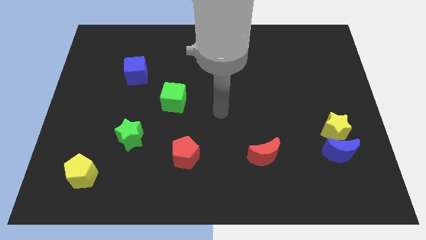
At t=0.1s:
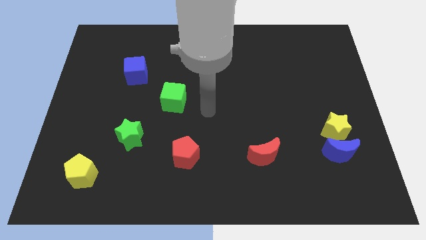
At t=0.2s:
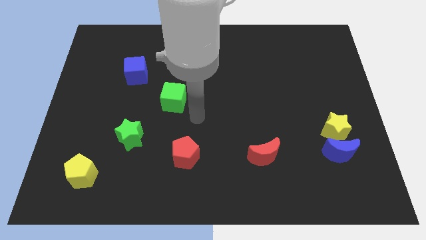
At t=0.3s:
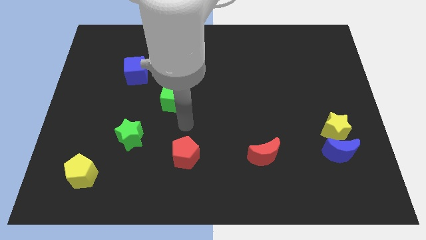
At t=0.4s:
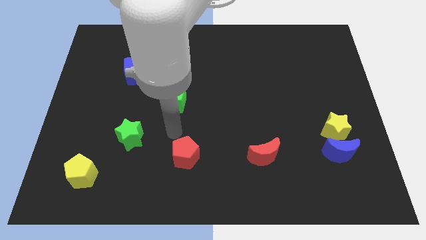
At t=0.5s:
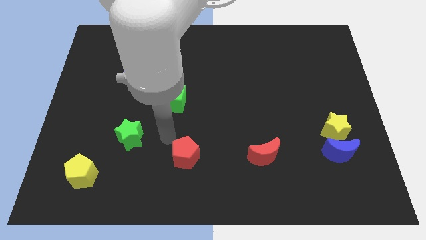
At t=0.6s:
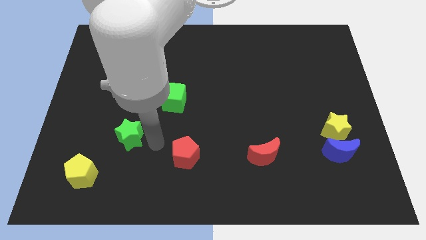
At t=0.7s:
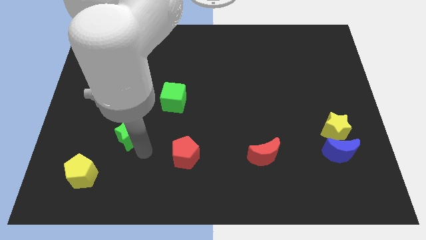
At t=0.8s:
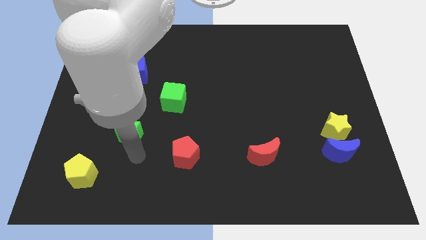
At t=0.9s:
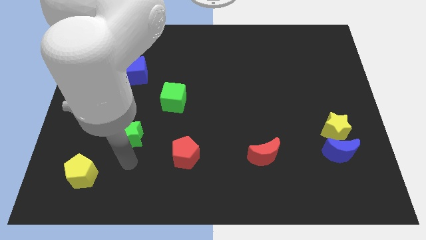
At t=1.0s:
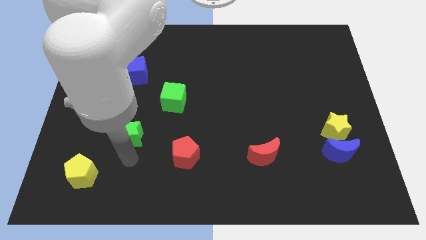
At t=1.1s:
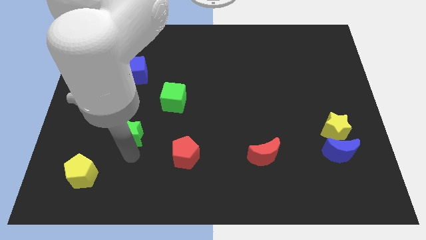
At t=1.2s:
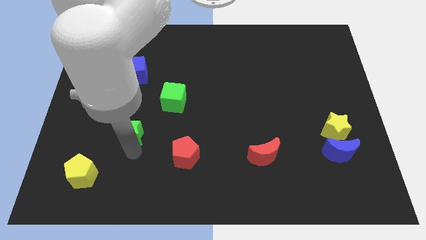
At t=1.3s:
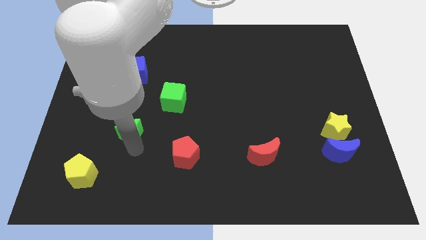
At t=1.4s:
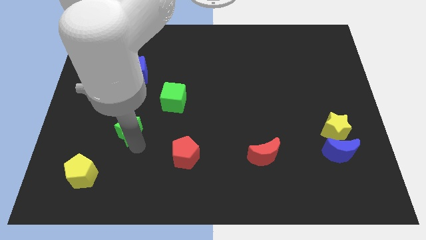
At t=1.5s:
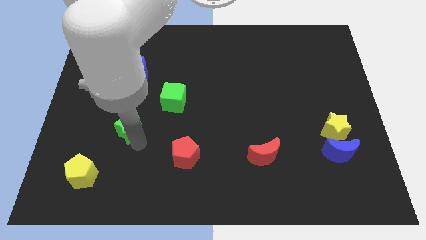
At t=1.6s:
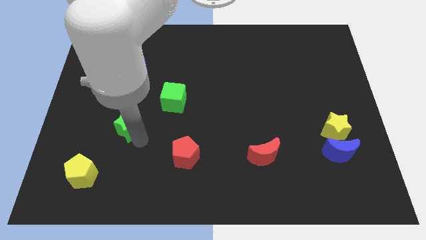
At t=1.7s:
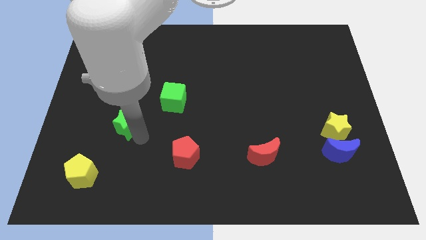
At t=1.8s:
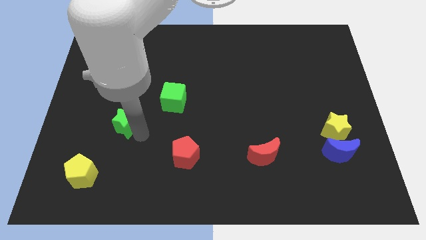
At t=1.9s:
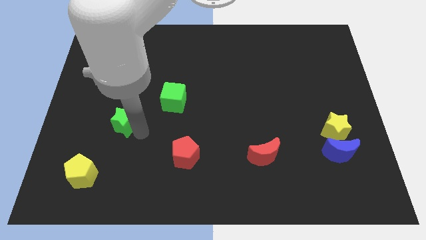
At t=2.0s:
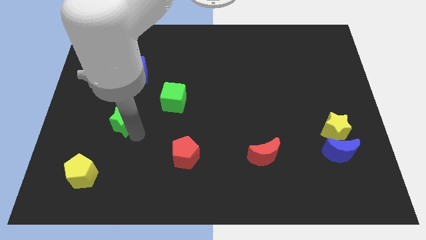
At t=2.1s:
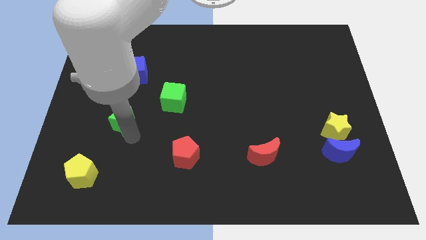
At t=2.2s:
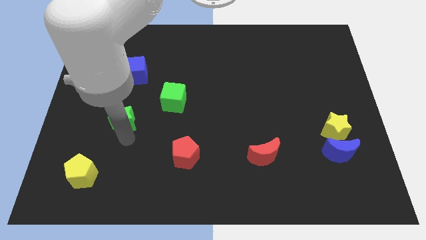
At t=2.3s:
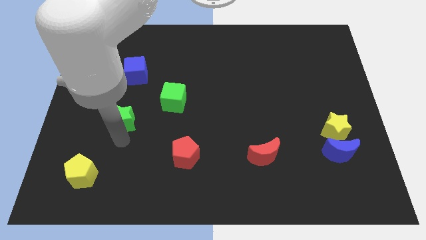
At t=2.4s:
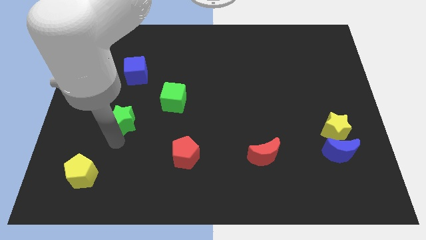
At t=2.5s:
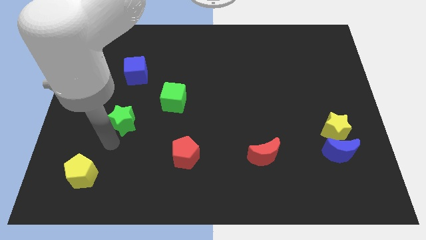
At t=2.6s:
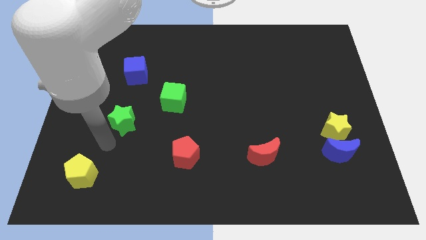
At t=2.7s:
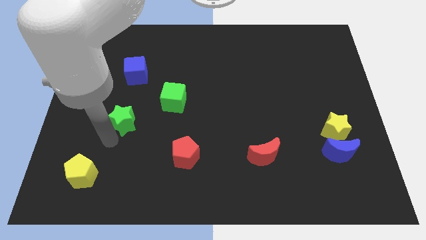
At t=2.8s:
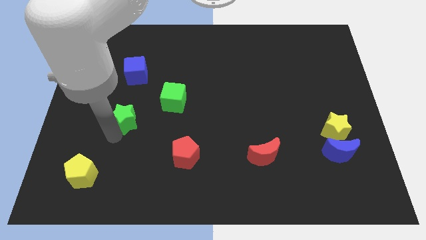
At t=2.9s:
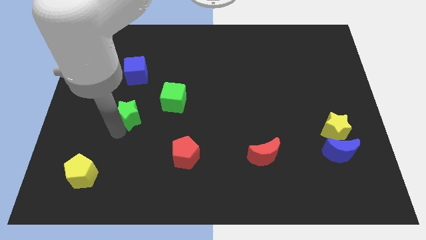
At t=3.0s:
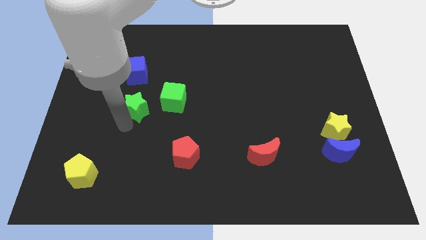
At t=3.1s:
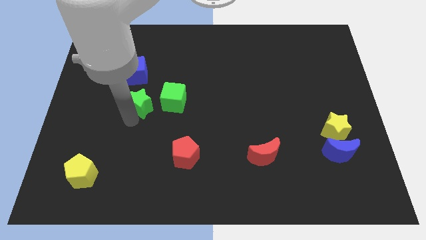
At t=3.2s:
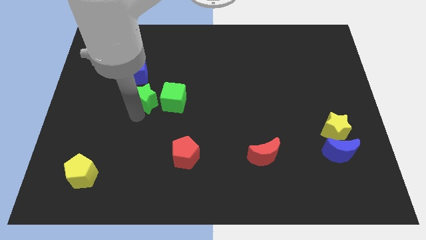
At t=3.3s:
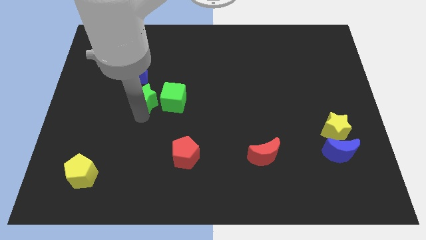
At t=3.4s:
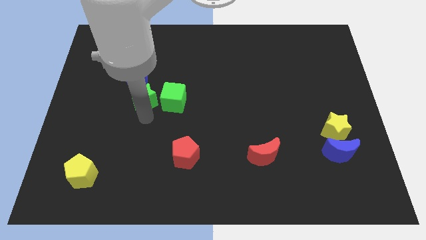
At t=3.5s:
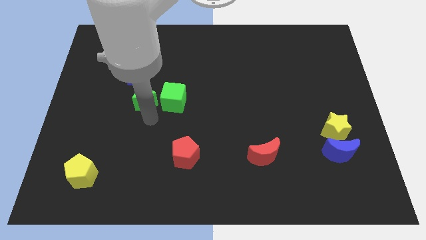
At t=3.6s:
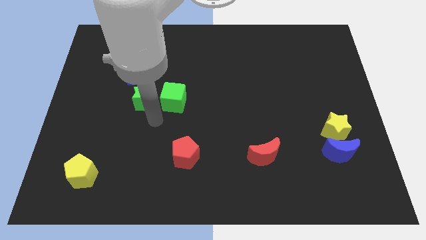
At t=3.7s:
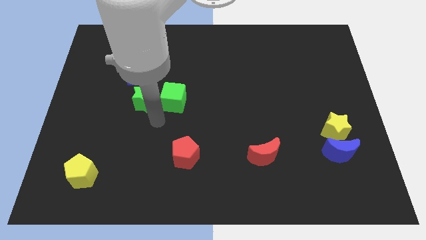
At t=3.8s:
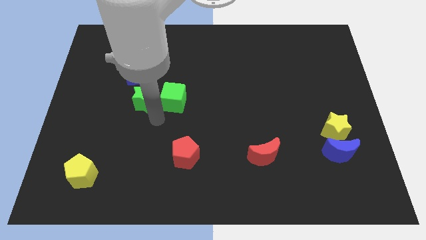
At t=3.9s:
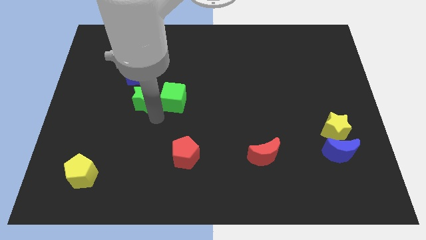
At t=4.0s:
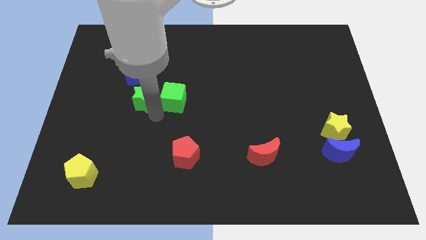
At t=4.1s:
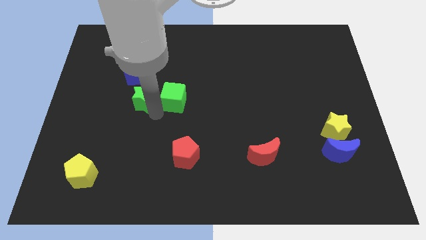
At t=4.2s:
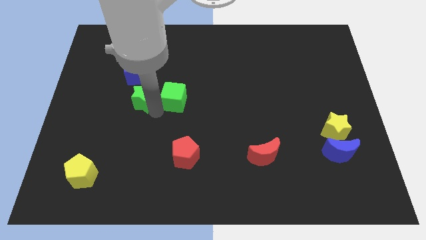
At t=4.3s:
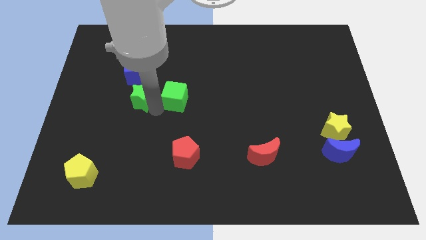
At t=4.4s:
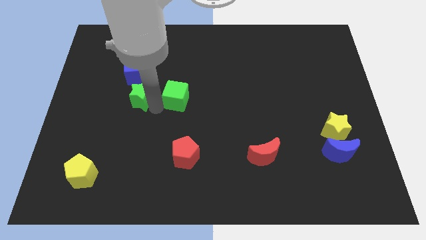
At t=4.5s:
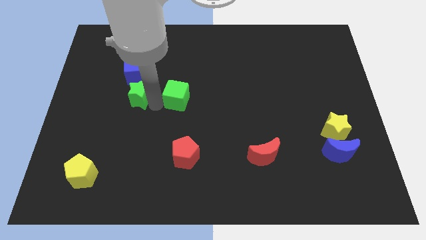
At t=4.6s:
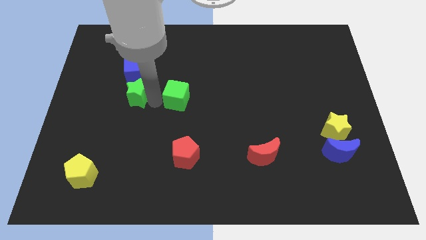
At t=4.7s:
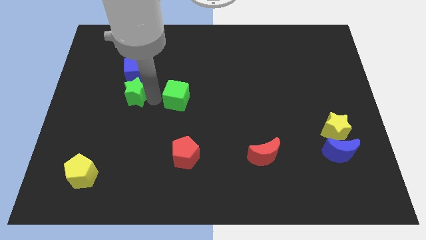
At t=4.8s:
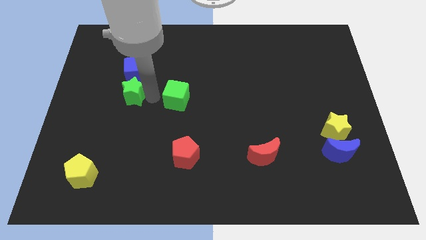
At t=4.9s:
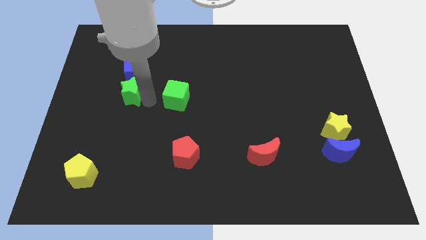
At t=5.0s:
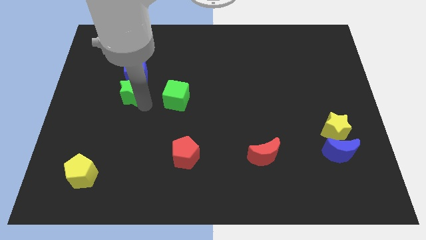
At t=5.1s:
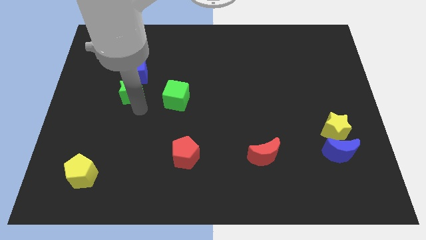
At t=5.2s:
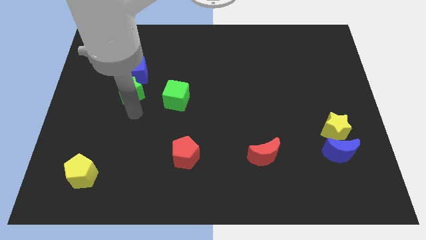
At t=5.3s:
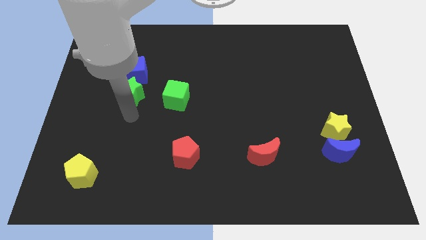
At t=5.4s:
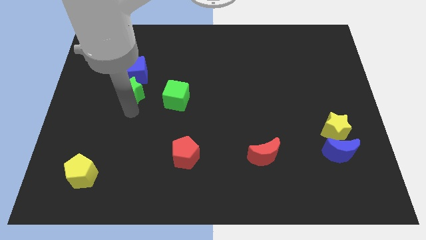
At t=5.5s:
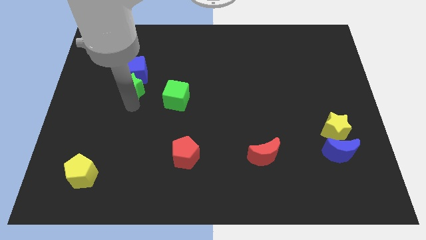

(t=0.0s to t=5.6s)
slide the green star next to the blue cube
